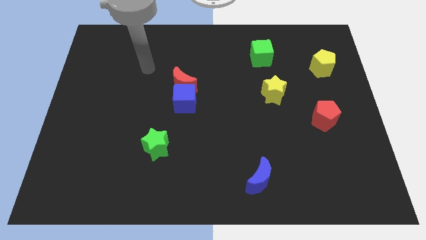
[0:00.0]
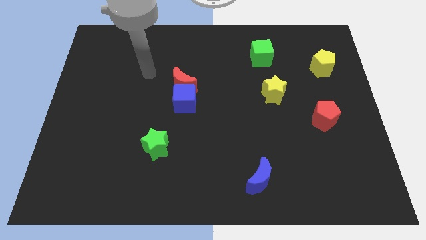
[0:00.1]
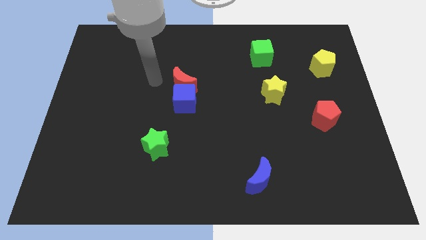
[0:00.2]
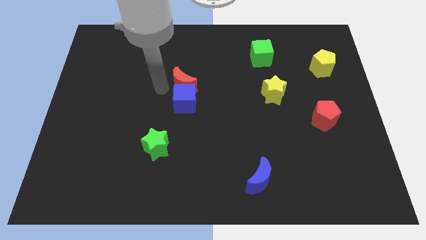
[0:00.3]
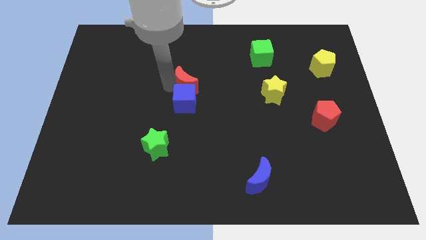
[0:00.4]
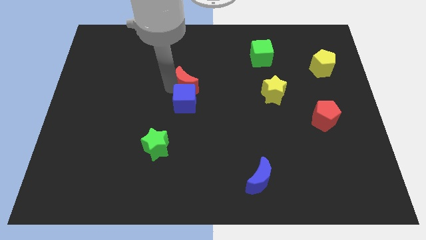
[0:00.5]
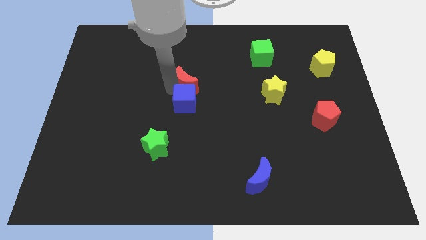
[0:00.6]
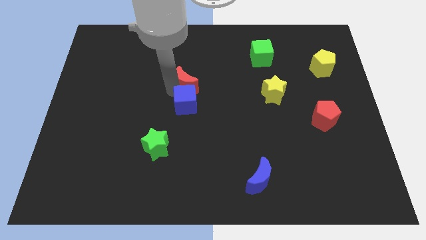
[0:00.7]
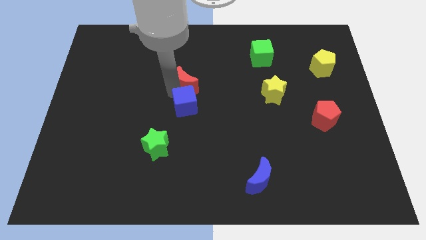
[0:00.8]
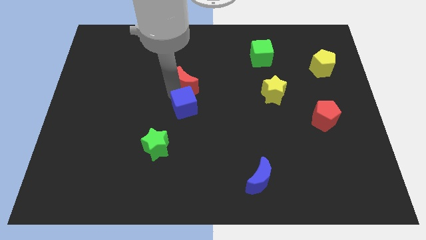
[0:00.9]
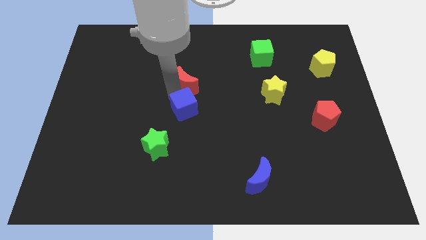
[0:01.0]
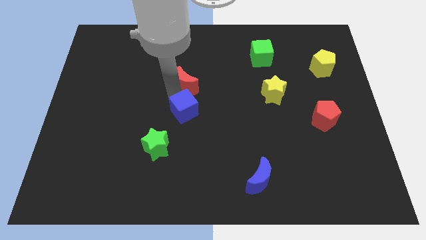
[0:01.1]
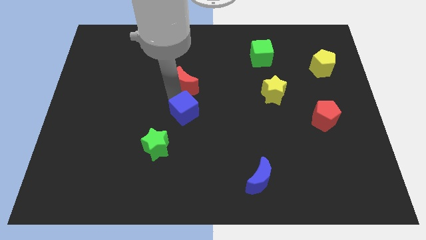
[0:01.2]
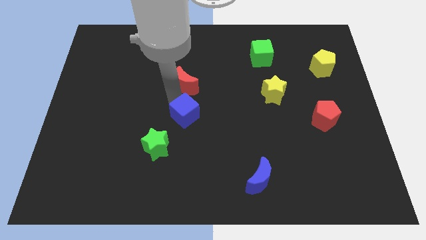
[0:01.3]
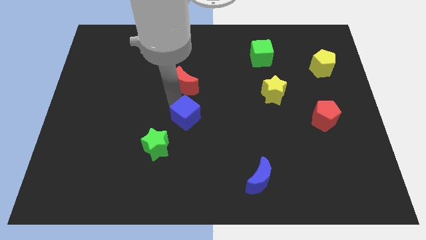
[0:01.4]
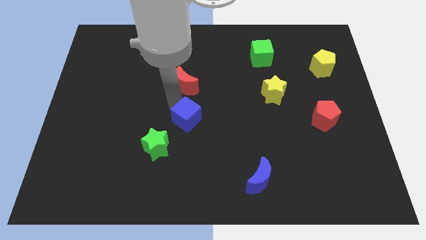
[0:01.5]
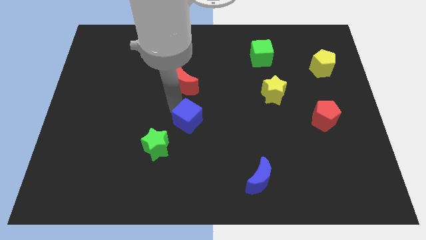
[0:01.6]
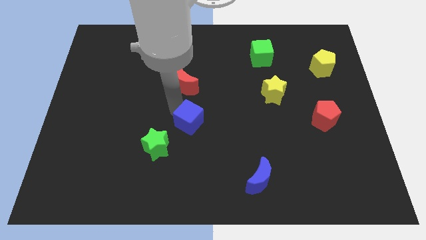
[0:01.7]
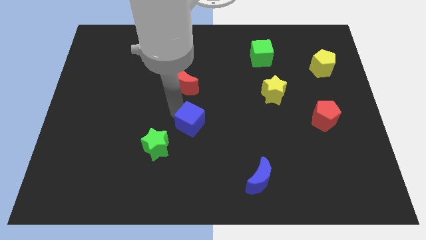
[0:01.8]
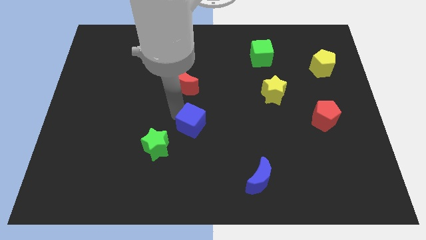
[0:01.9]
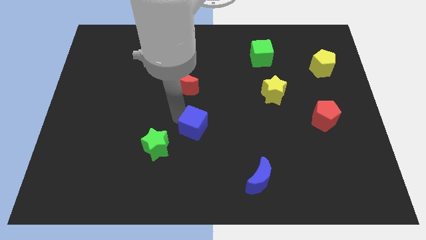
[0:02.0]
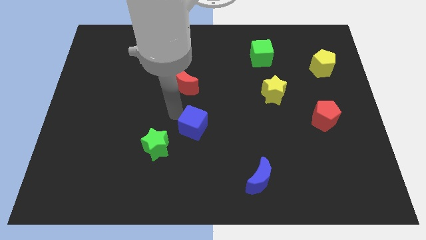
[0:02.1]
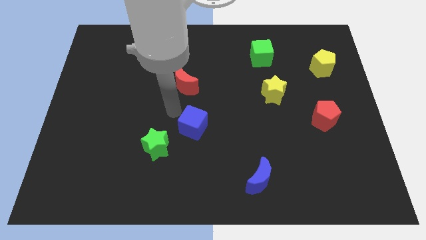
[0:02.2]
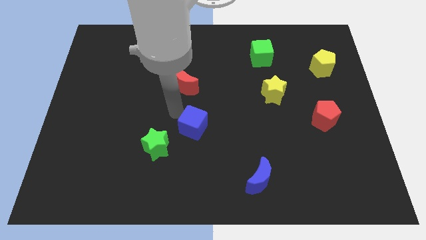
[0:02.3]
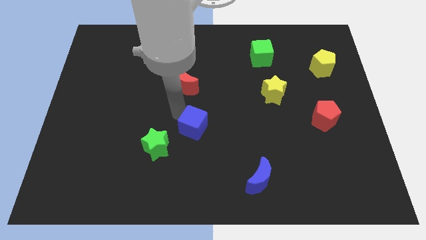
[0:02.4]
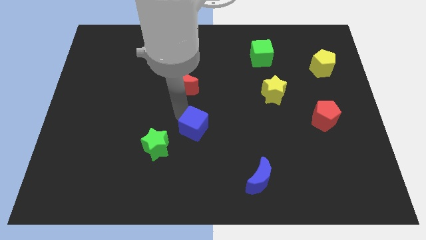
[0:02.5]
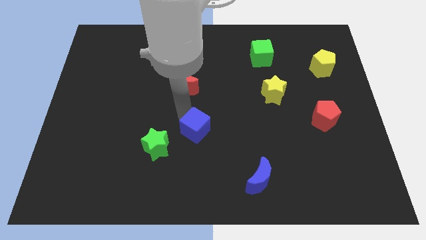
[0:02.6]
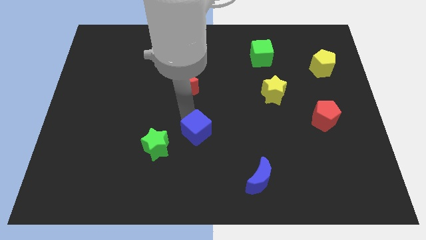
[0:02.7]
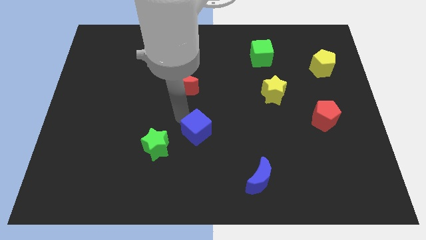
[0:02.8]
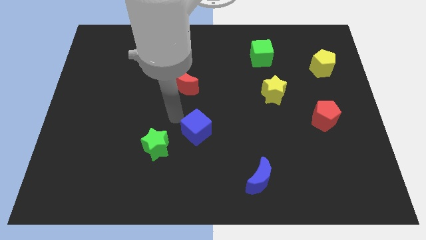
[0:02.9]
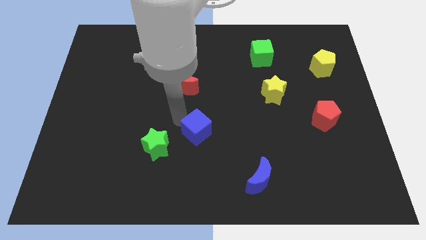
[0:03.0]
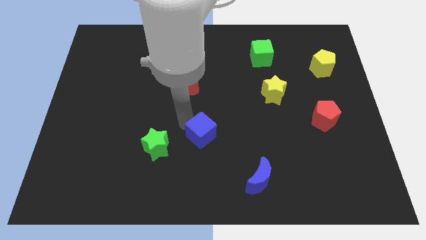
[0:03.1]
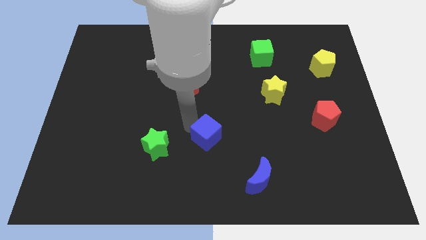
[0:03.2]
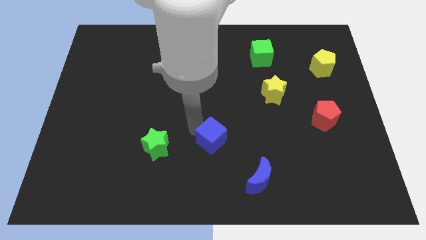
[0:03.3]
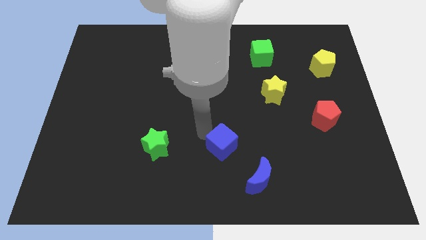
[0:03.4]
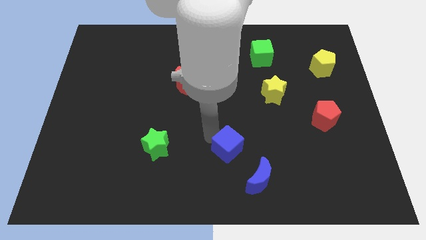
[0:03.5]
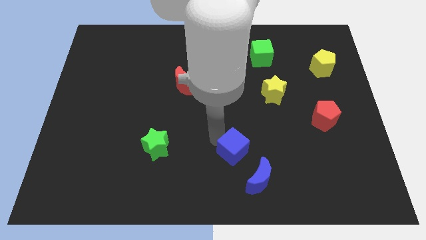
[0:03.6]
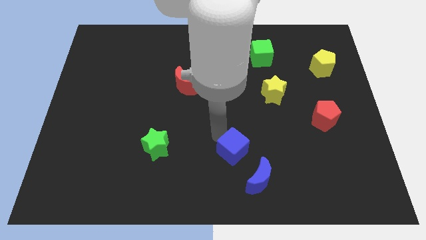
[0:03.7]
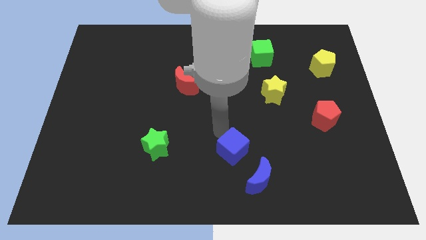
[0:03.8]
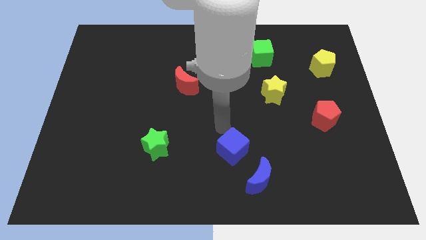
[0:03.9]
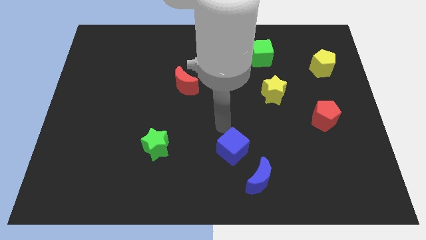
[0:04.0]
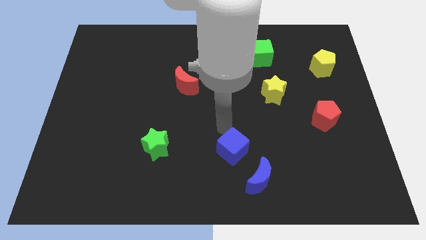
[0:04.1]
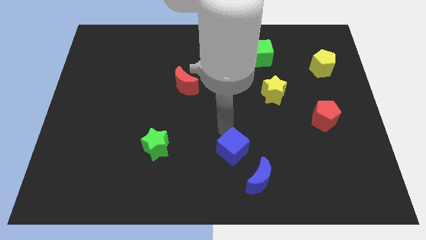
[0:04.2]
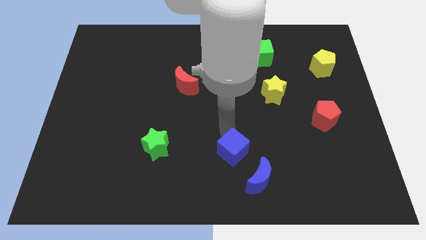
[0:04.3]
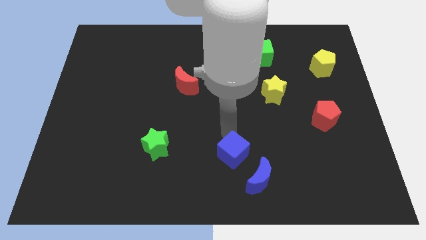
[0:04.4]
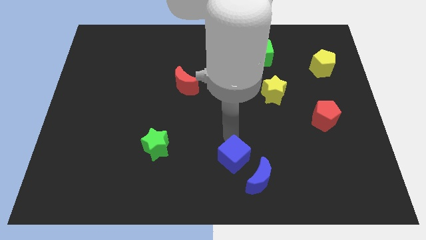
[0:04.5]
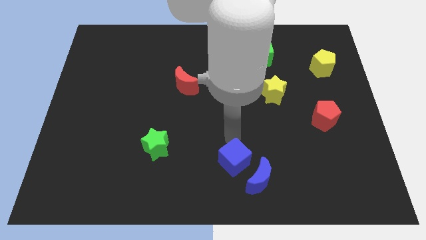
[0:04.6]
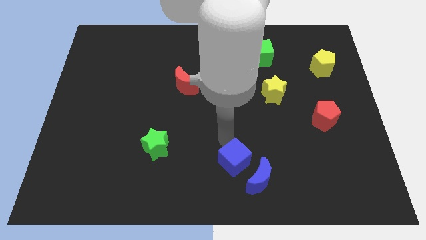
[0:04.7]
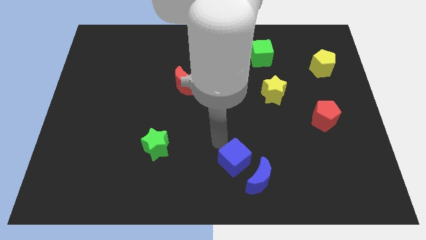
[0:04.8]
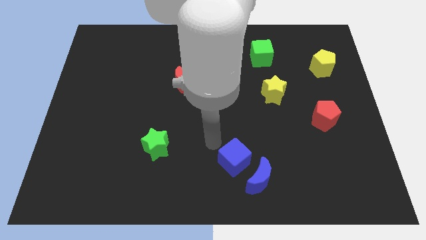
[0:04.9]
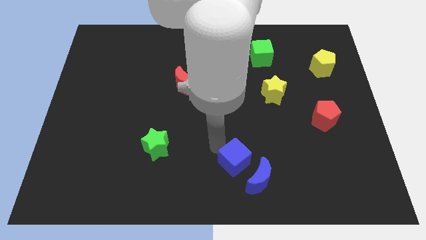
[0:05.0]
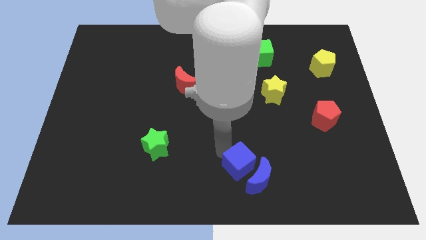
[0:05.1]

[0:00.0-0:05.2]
put the blue cube close to the blue moon

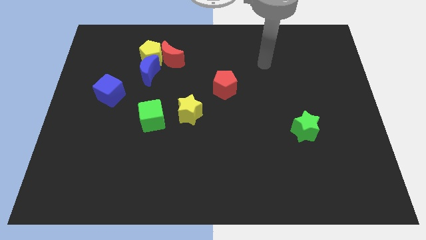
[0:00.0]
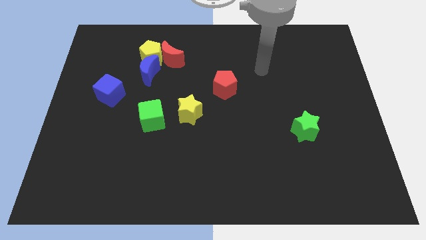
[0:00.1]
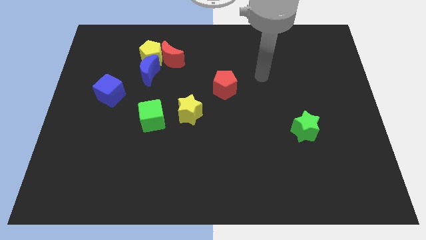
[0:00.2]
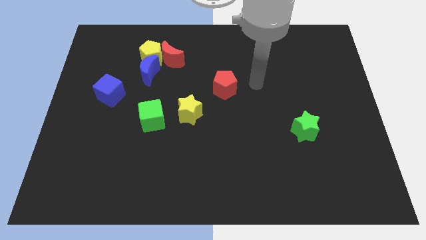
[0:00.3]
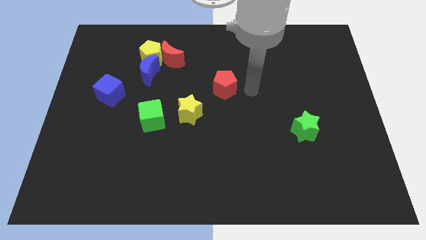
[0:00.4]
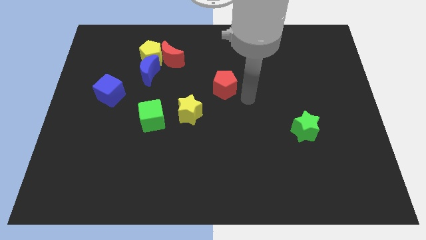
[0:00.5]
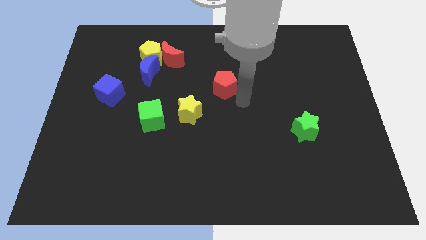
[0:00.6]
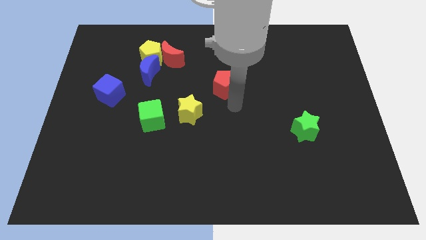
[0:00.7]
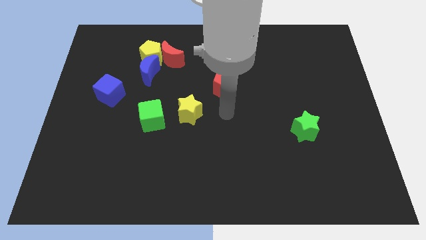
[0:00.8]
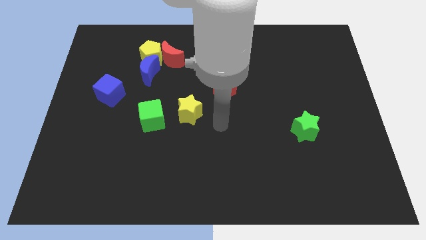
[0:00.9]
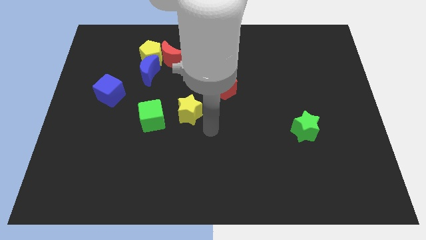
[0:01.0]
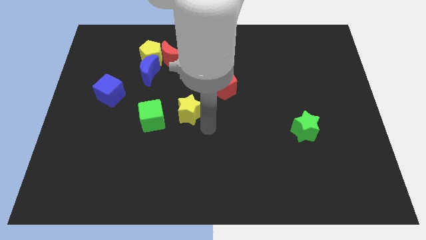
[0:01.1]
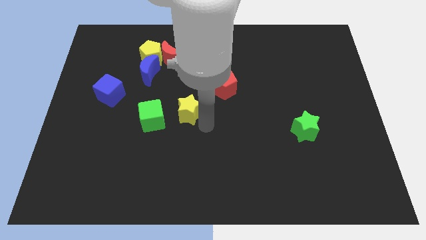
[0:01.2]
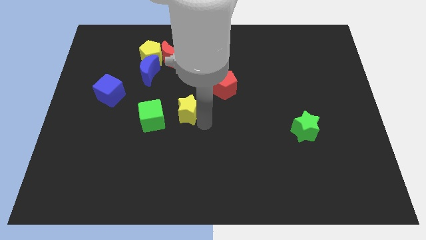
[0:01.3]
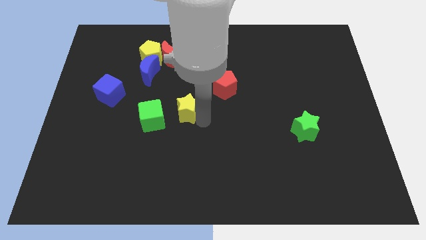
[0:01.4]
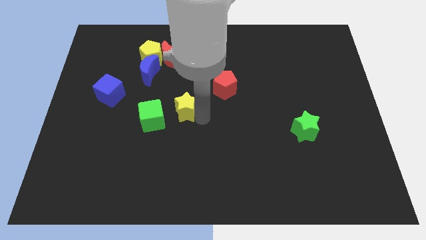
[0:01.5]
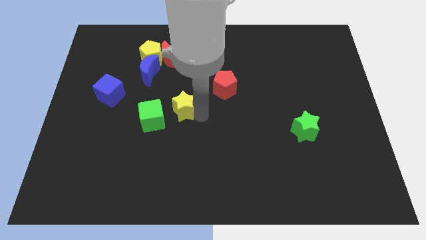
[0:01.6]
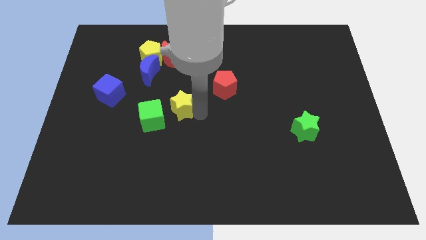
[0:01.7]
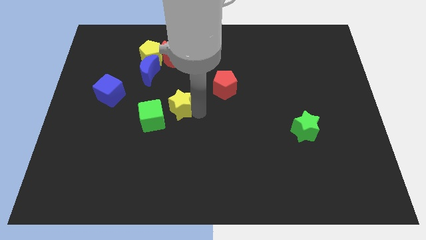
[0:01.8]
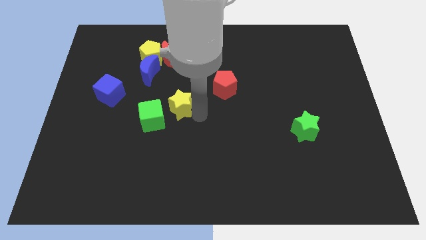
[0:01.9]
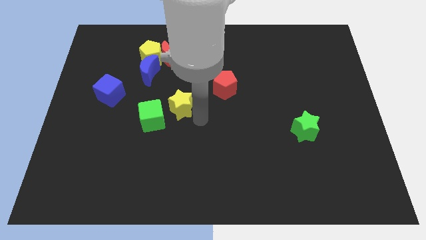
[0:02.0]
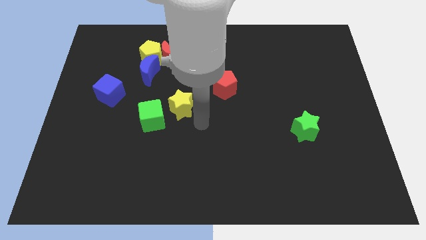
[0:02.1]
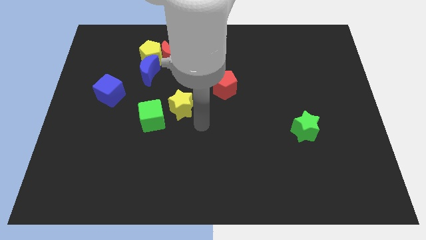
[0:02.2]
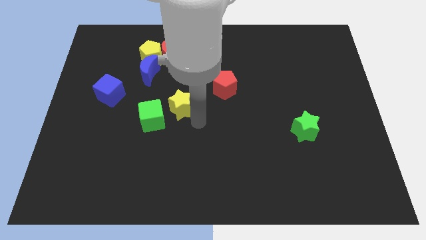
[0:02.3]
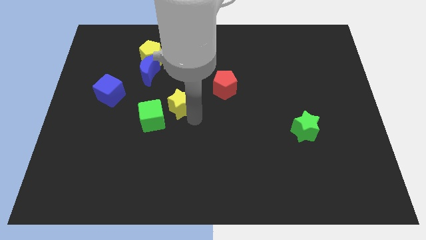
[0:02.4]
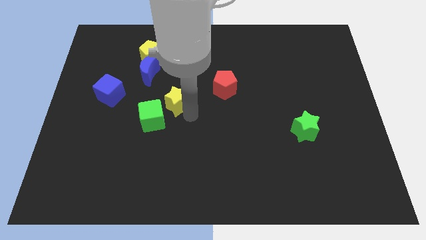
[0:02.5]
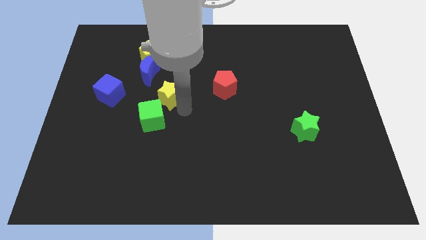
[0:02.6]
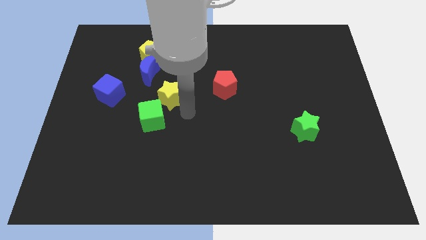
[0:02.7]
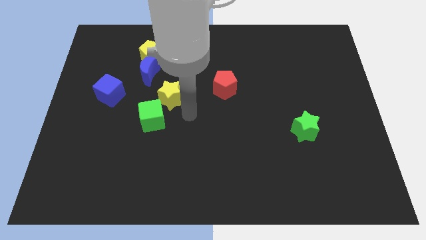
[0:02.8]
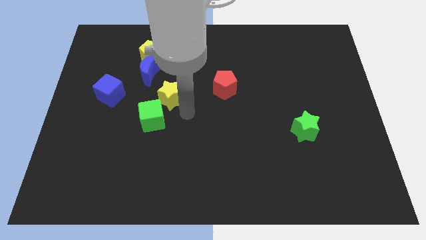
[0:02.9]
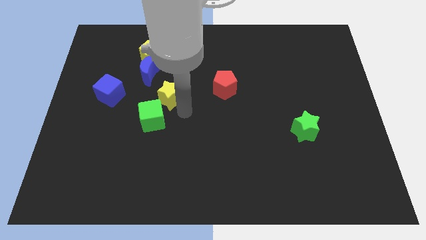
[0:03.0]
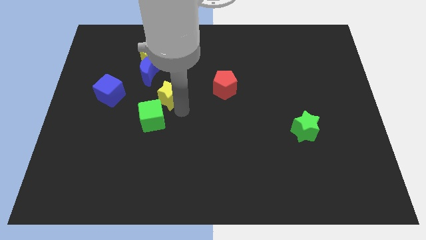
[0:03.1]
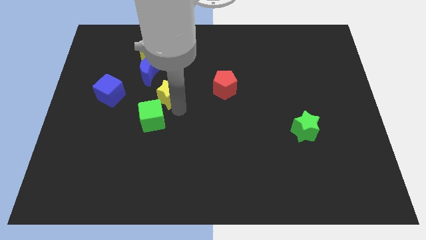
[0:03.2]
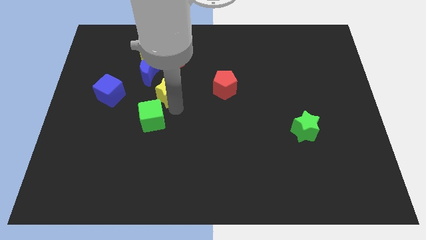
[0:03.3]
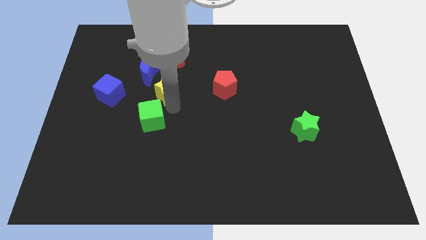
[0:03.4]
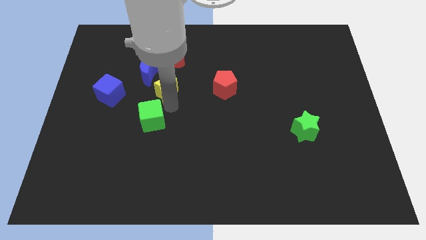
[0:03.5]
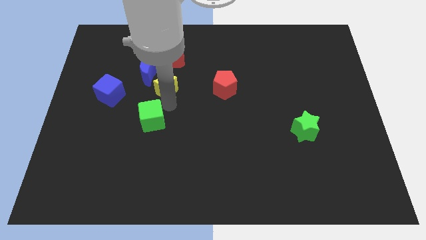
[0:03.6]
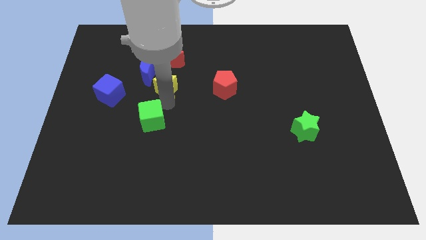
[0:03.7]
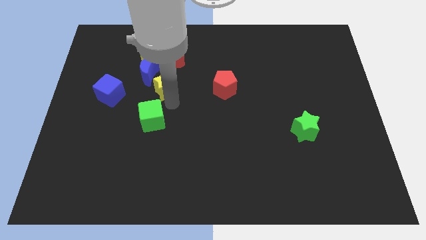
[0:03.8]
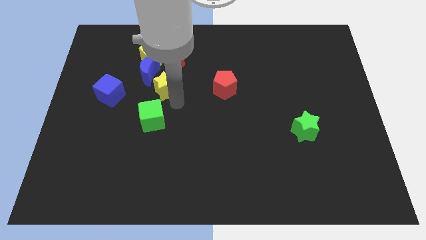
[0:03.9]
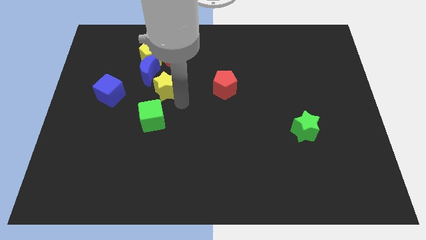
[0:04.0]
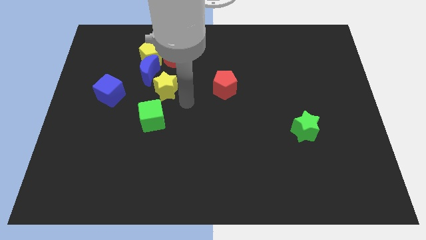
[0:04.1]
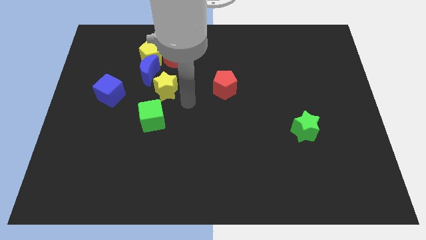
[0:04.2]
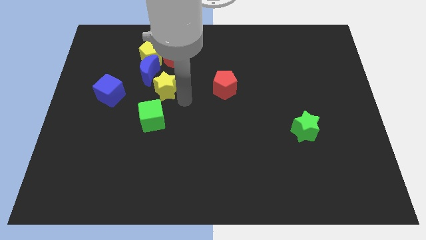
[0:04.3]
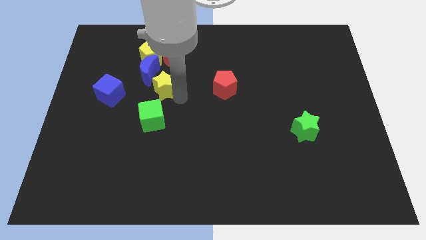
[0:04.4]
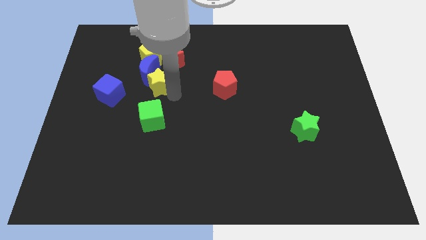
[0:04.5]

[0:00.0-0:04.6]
move the yellow star to the blue moon
